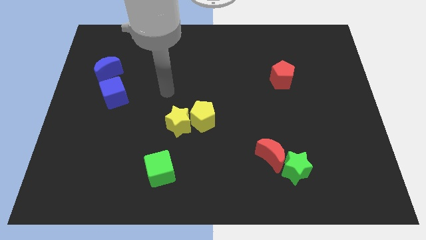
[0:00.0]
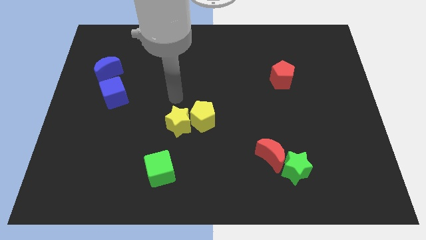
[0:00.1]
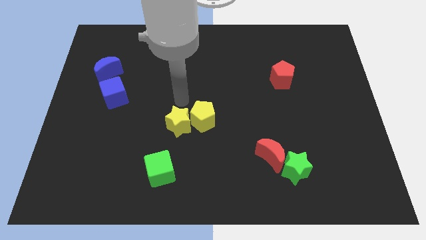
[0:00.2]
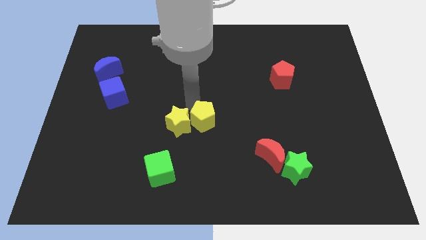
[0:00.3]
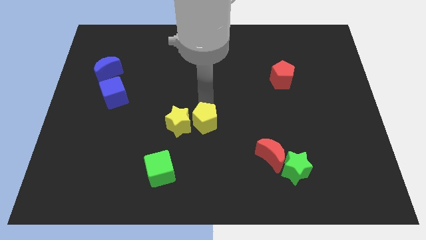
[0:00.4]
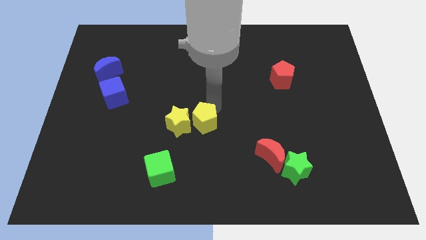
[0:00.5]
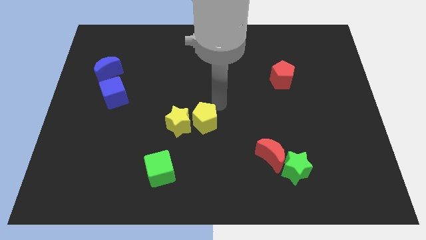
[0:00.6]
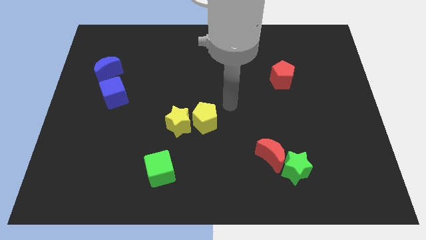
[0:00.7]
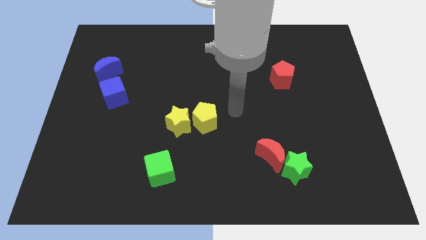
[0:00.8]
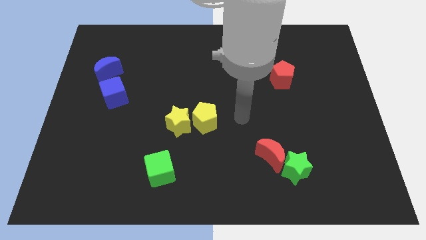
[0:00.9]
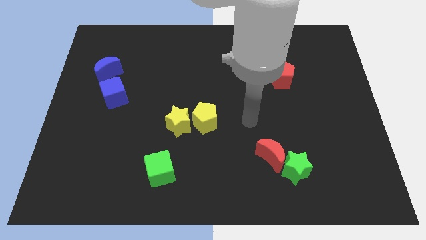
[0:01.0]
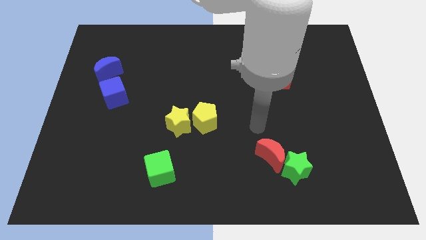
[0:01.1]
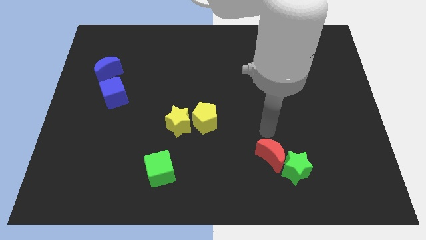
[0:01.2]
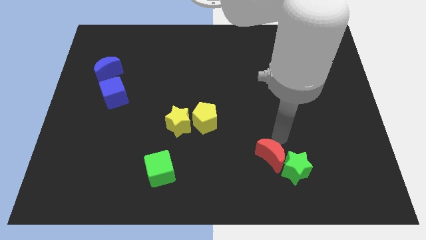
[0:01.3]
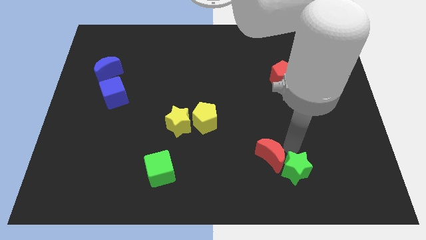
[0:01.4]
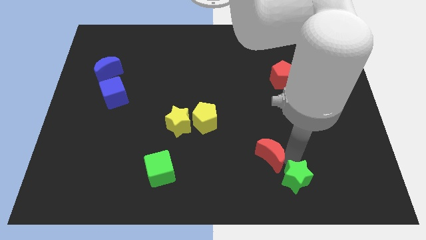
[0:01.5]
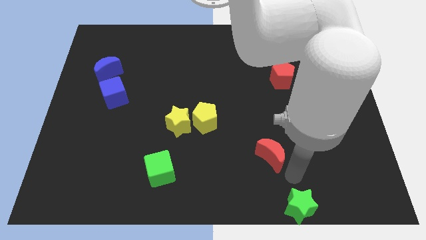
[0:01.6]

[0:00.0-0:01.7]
move the red moon away from the green star

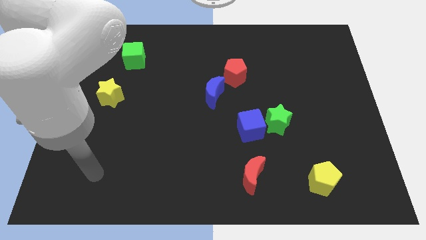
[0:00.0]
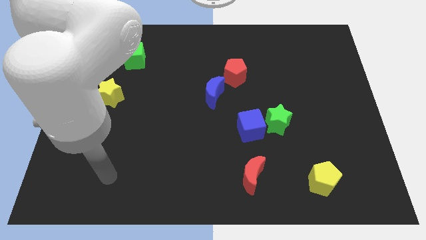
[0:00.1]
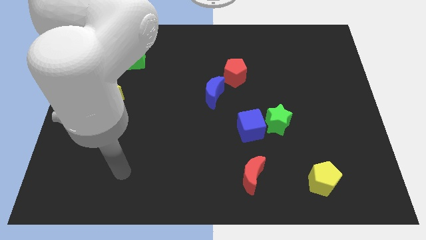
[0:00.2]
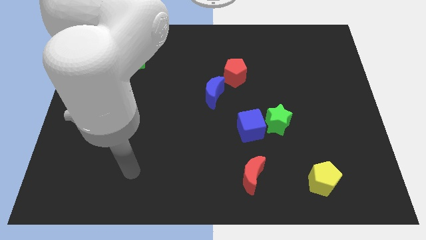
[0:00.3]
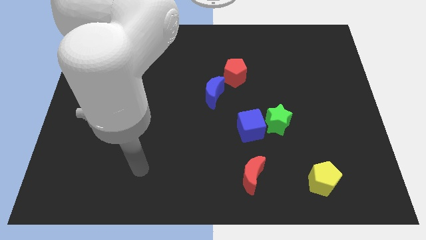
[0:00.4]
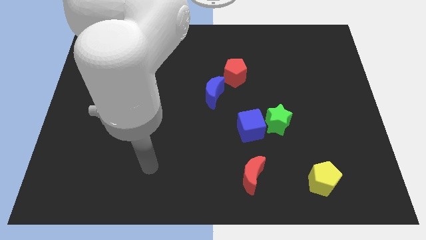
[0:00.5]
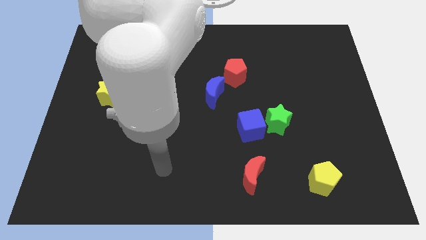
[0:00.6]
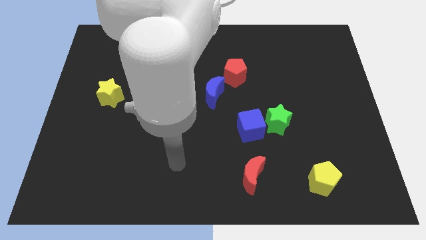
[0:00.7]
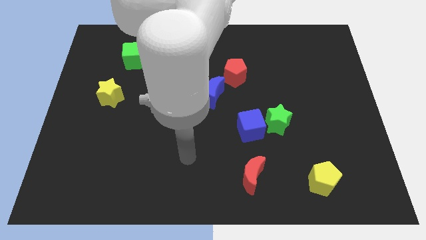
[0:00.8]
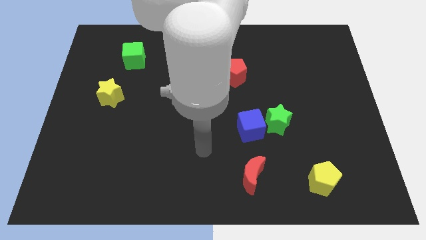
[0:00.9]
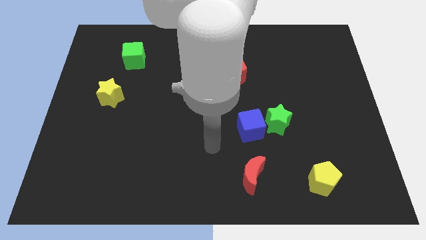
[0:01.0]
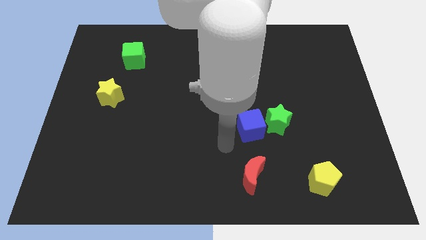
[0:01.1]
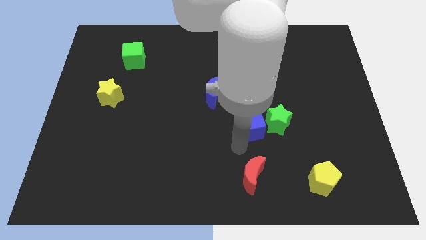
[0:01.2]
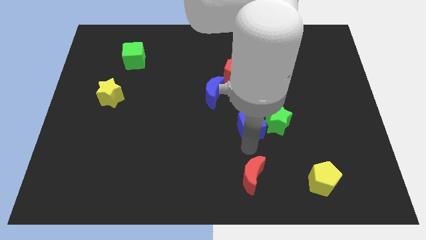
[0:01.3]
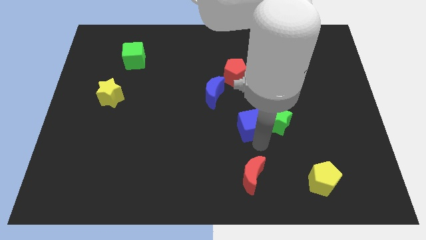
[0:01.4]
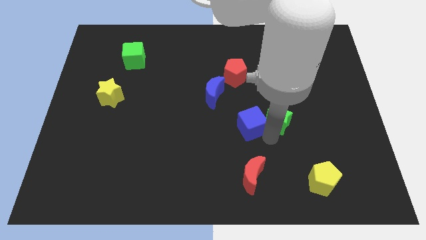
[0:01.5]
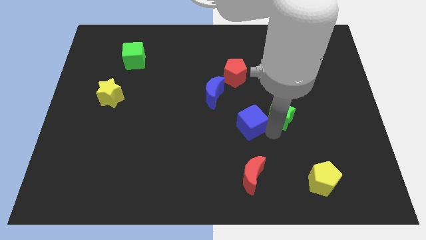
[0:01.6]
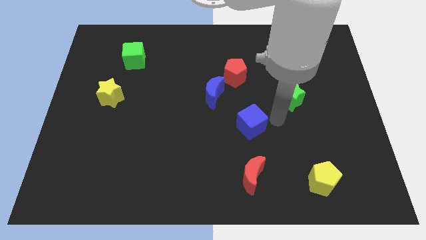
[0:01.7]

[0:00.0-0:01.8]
pull the blue cube apart from the green star

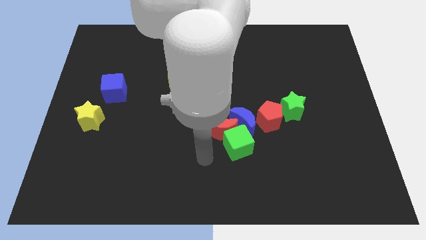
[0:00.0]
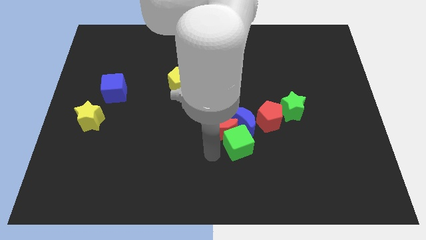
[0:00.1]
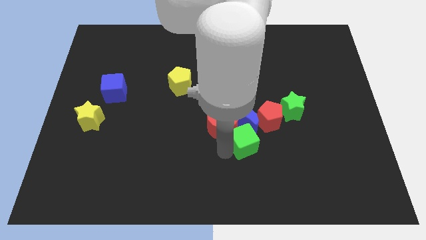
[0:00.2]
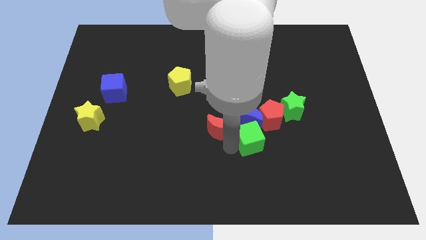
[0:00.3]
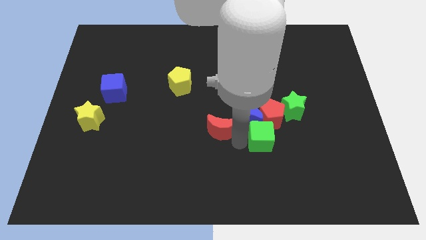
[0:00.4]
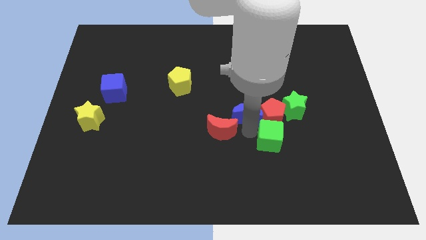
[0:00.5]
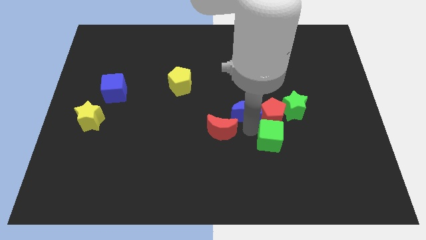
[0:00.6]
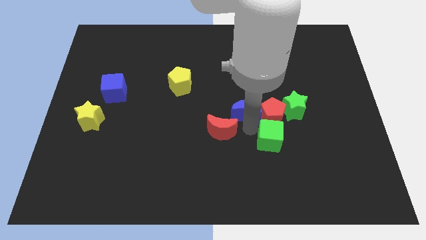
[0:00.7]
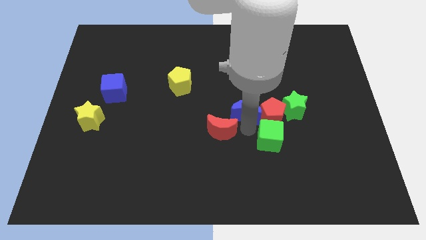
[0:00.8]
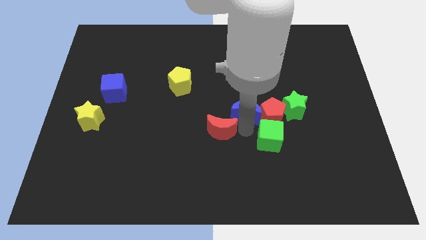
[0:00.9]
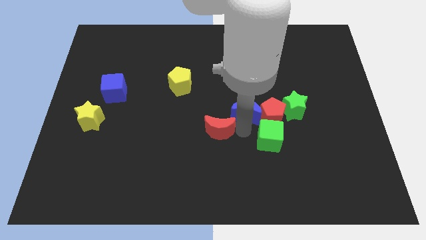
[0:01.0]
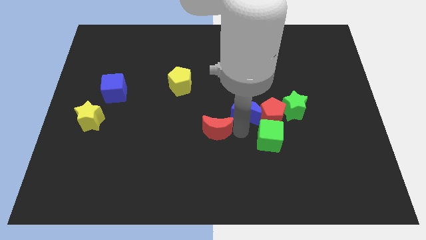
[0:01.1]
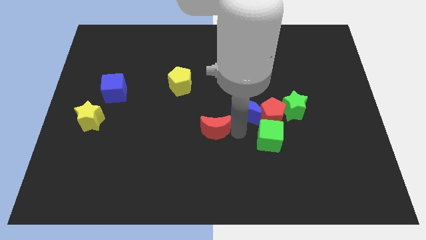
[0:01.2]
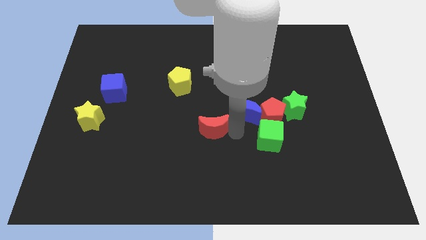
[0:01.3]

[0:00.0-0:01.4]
move the red moon away from the green cube and blue moon

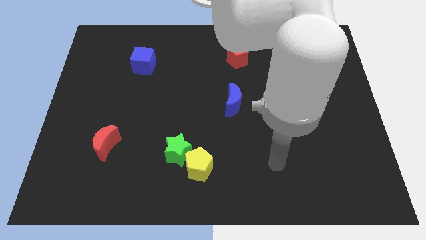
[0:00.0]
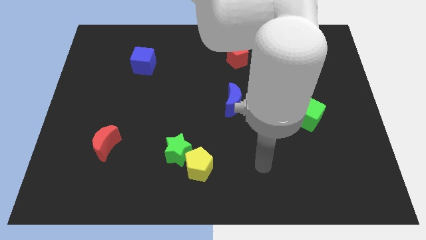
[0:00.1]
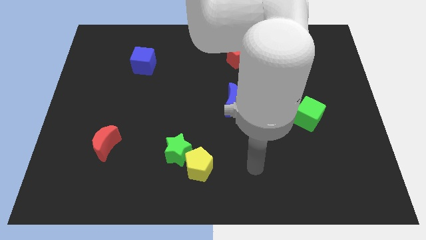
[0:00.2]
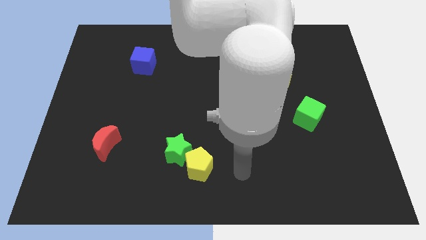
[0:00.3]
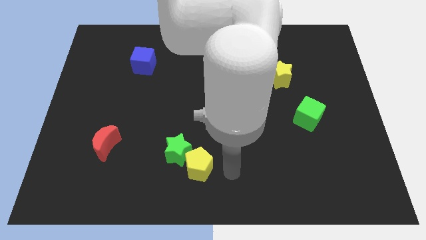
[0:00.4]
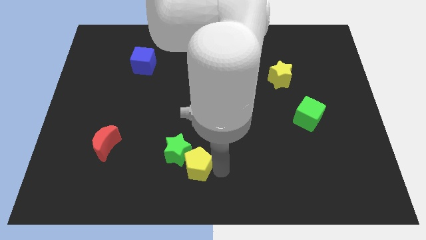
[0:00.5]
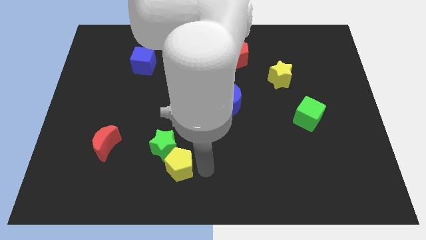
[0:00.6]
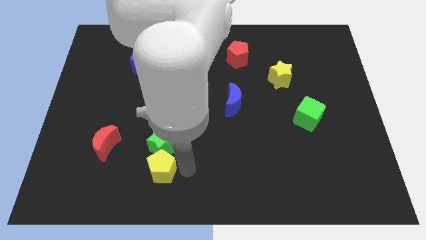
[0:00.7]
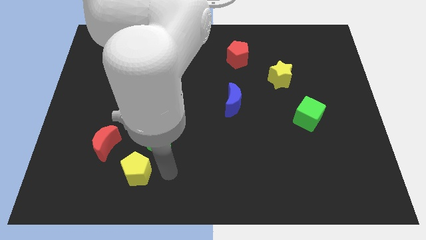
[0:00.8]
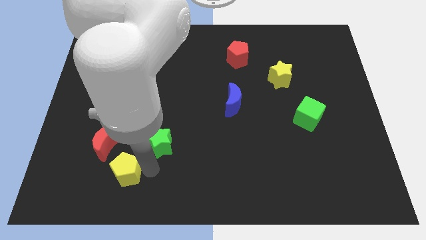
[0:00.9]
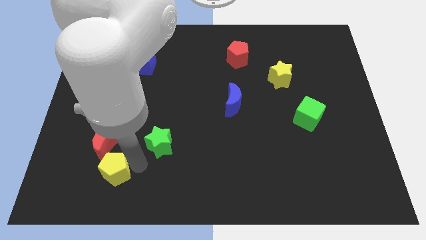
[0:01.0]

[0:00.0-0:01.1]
pull the green star apart from the yellow pentagon

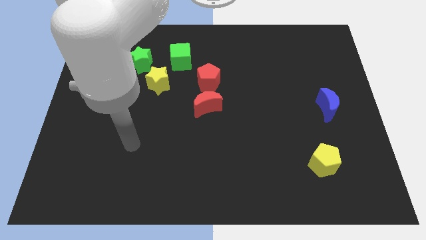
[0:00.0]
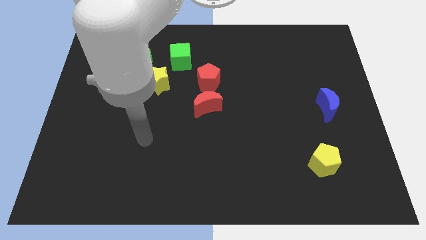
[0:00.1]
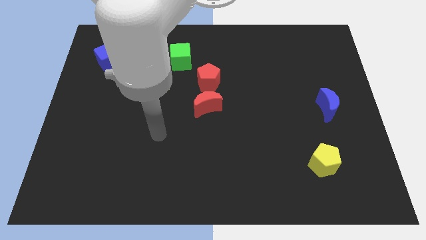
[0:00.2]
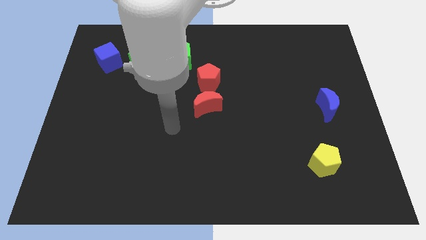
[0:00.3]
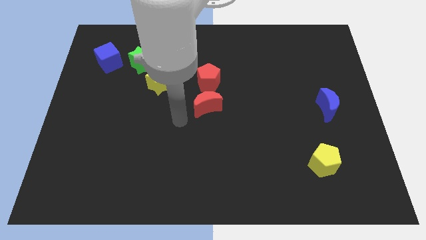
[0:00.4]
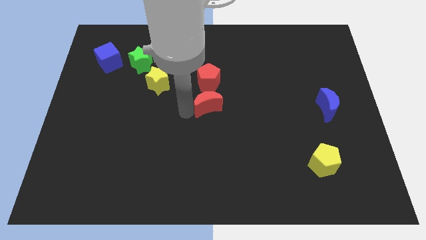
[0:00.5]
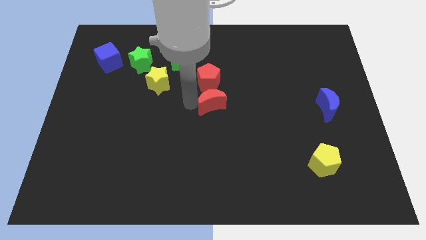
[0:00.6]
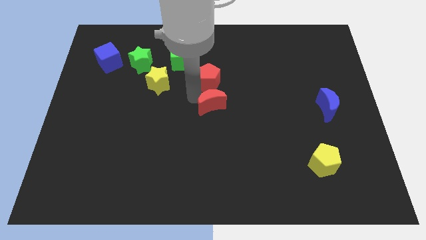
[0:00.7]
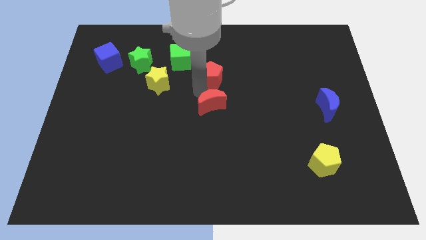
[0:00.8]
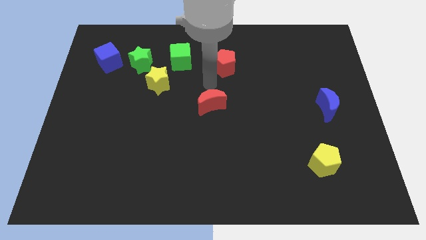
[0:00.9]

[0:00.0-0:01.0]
separate the red moon from the red pentagon

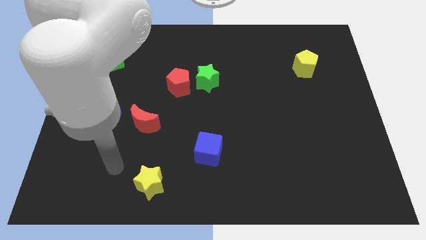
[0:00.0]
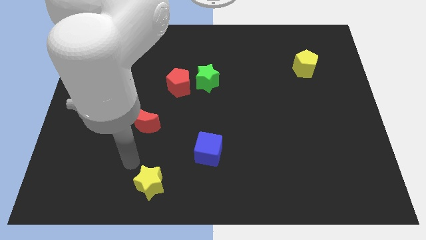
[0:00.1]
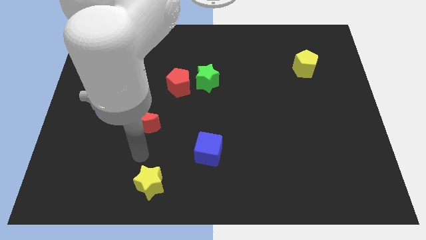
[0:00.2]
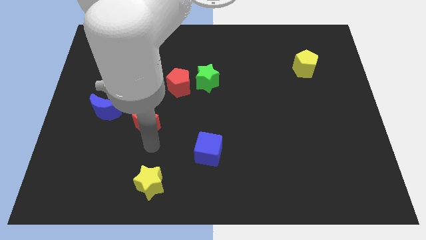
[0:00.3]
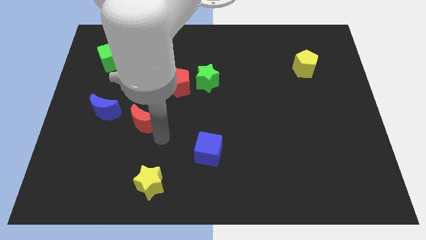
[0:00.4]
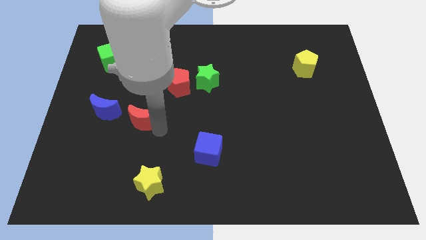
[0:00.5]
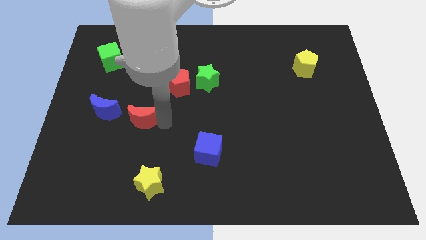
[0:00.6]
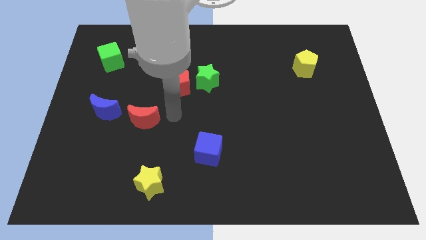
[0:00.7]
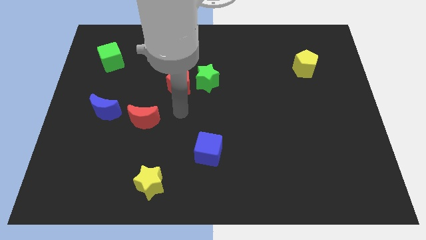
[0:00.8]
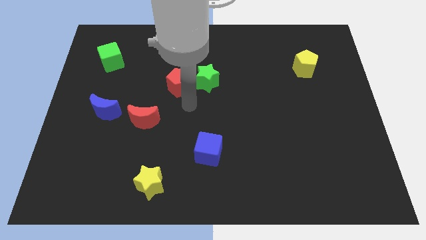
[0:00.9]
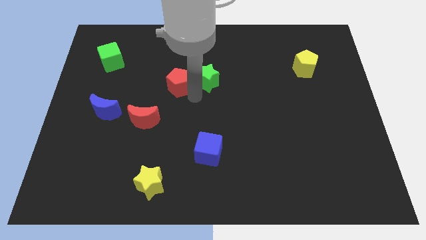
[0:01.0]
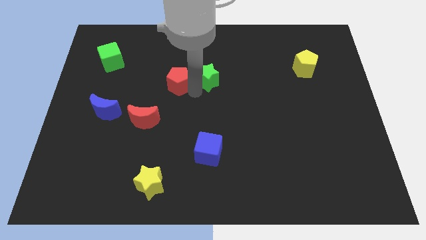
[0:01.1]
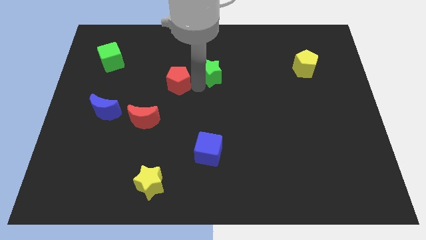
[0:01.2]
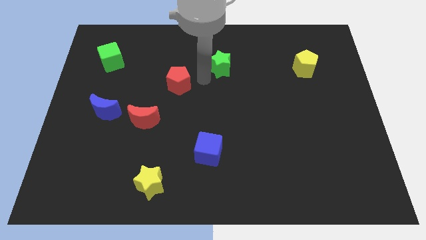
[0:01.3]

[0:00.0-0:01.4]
pull the red pentagon apart from the green star

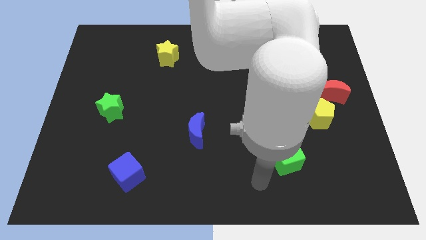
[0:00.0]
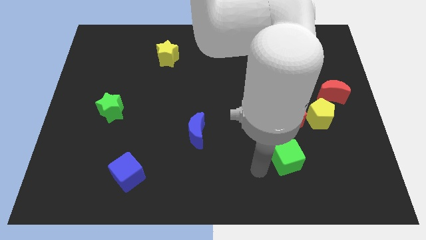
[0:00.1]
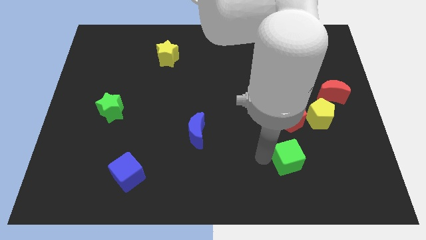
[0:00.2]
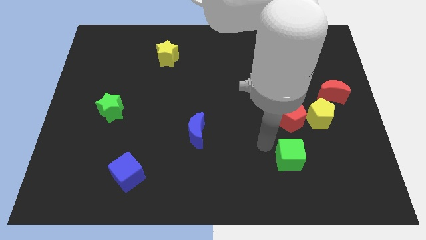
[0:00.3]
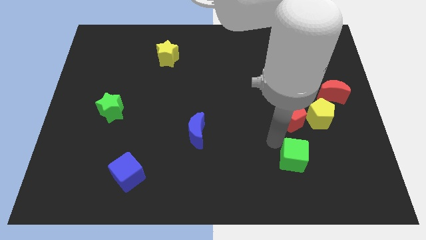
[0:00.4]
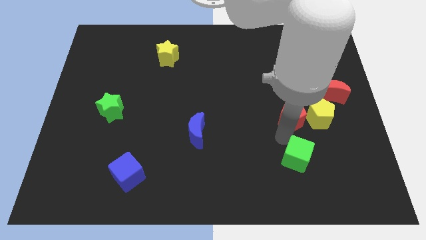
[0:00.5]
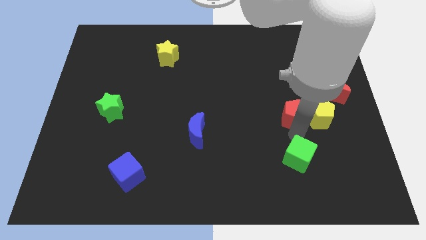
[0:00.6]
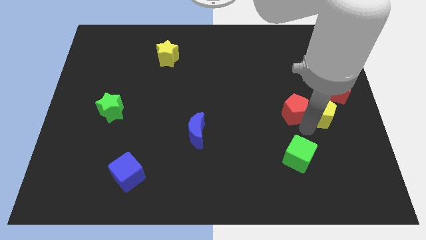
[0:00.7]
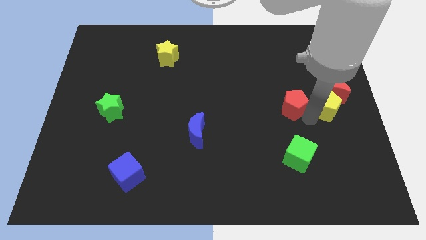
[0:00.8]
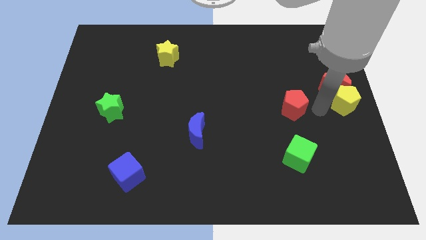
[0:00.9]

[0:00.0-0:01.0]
move the red pentagon away from the yellow pentagon
